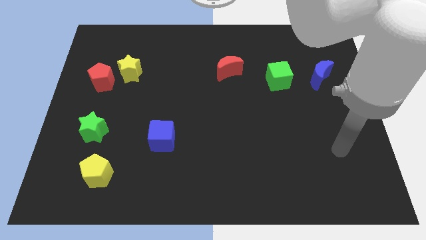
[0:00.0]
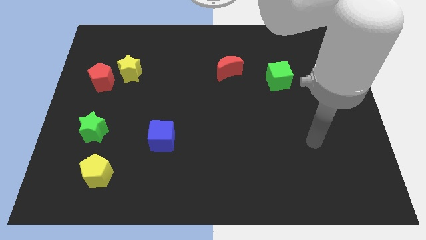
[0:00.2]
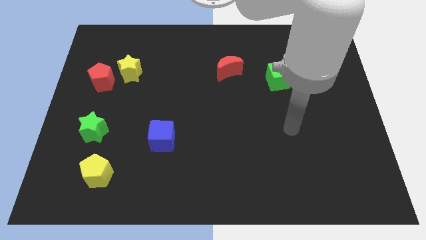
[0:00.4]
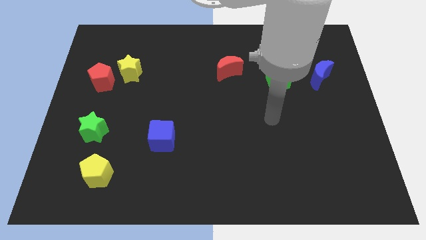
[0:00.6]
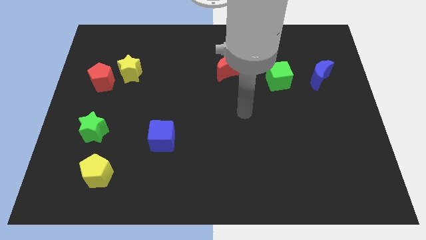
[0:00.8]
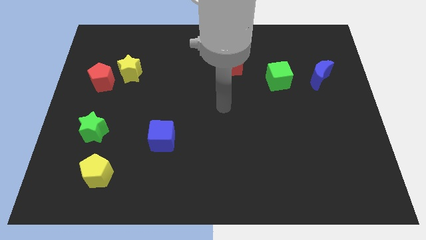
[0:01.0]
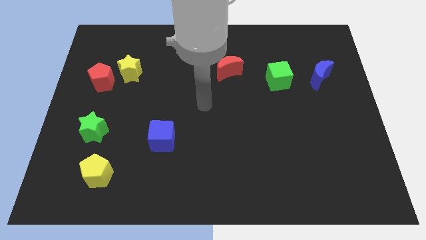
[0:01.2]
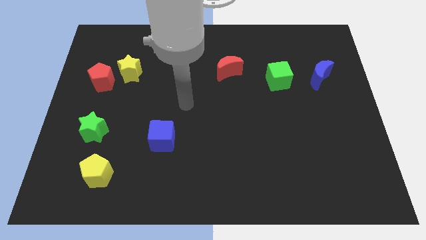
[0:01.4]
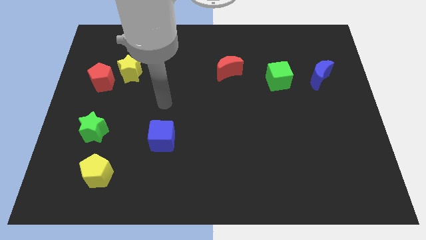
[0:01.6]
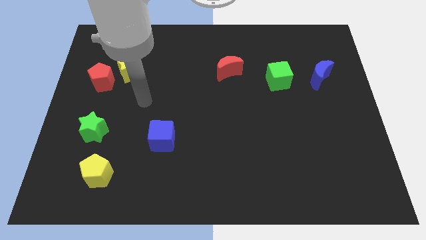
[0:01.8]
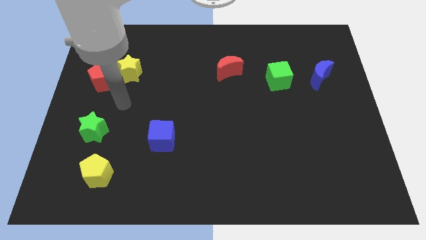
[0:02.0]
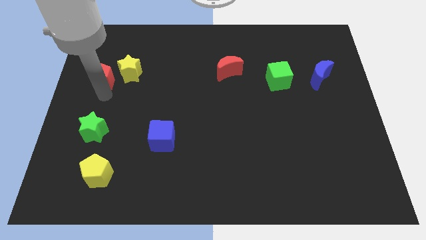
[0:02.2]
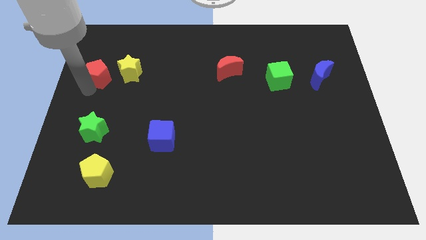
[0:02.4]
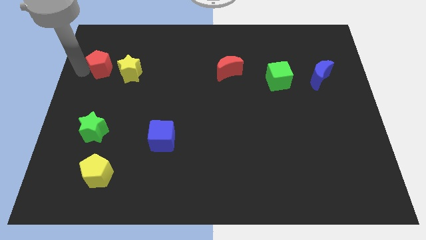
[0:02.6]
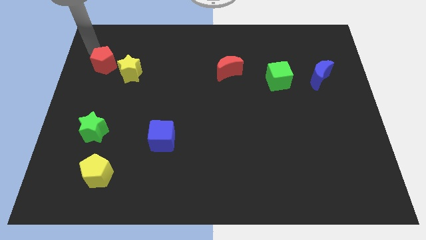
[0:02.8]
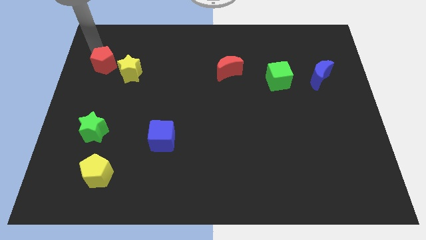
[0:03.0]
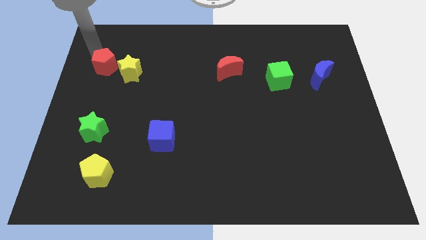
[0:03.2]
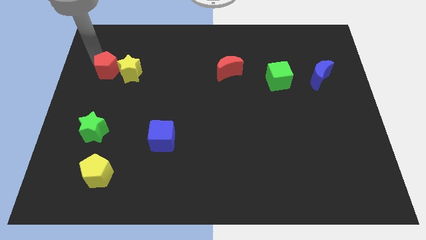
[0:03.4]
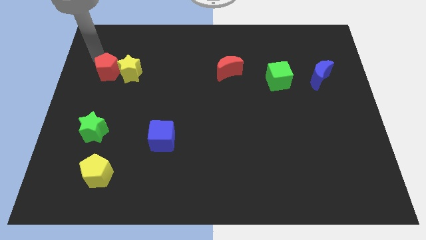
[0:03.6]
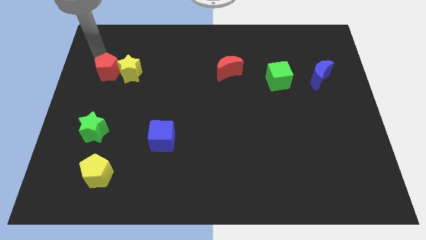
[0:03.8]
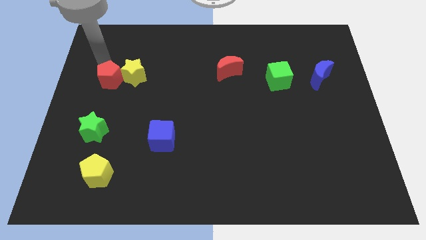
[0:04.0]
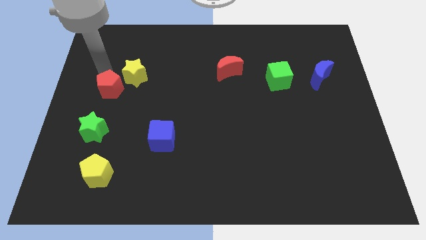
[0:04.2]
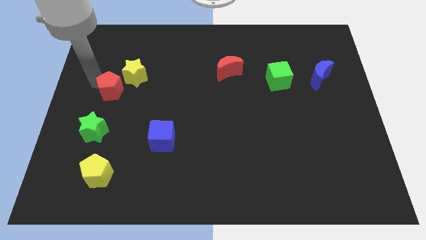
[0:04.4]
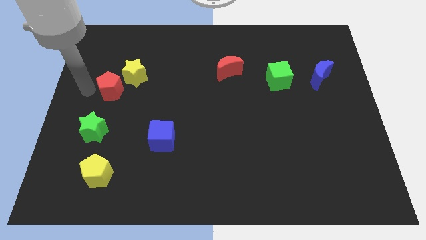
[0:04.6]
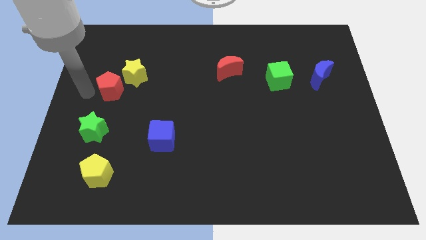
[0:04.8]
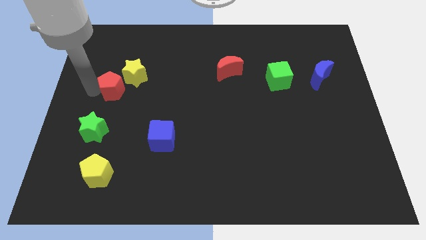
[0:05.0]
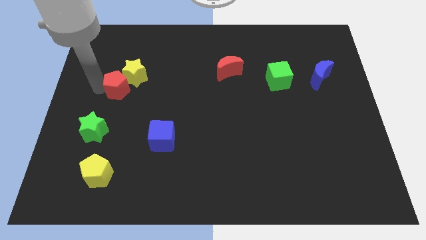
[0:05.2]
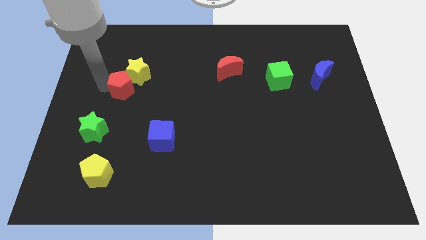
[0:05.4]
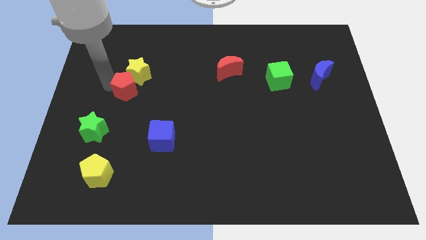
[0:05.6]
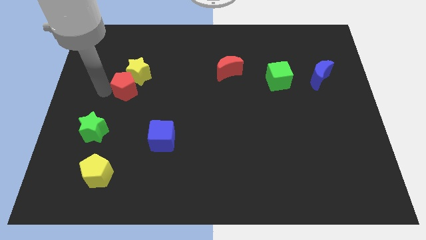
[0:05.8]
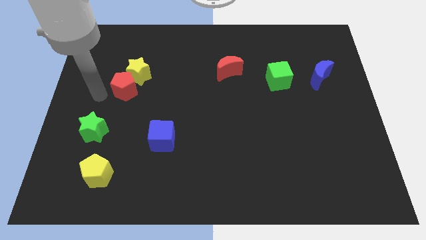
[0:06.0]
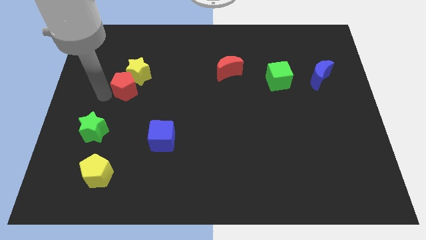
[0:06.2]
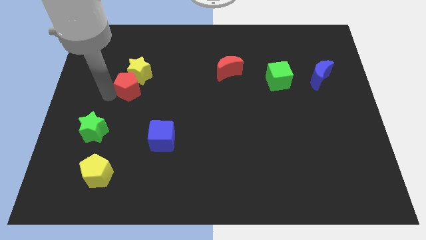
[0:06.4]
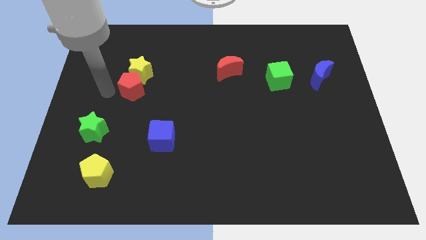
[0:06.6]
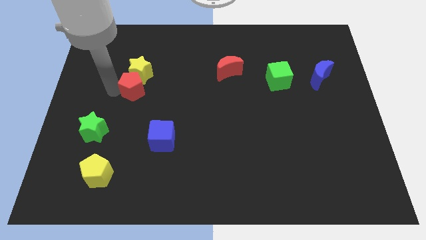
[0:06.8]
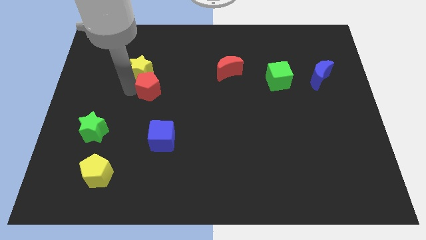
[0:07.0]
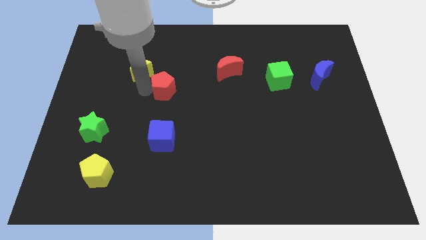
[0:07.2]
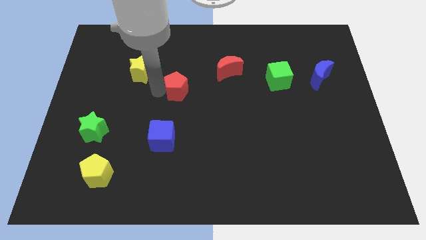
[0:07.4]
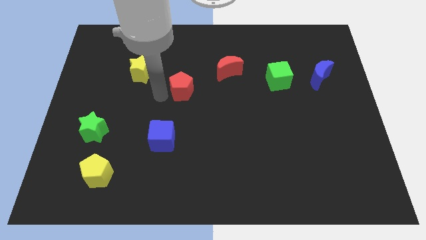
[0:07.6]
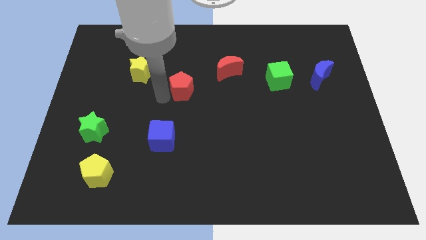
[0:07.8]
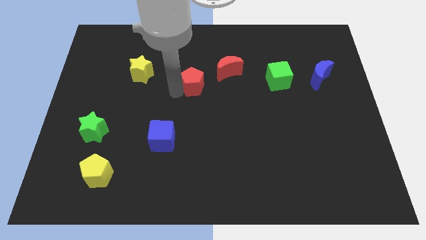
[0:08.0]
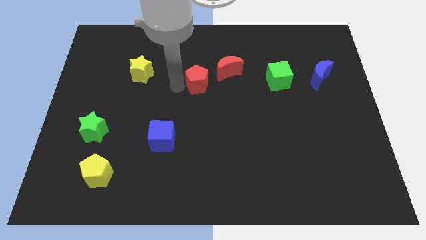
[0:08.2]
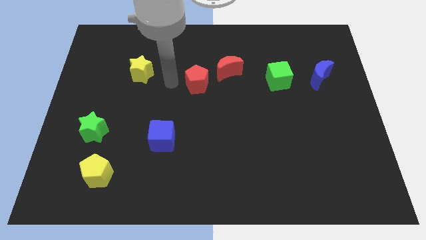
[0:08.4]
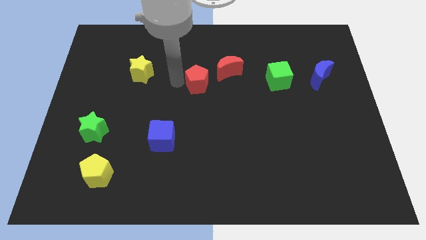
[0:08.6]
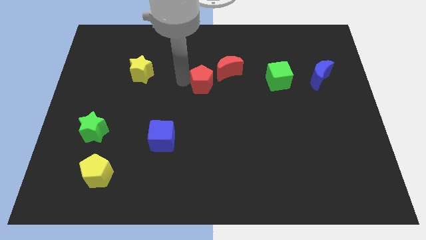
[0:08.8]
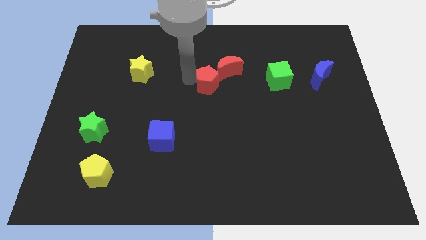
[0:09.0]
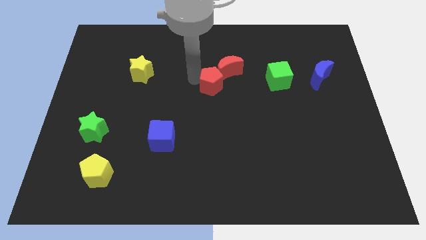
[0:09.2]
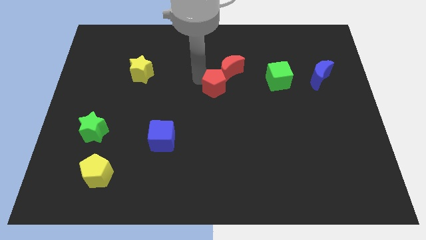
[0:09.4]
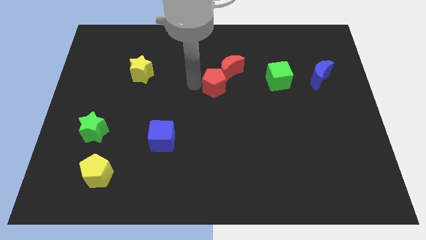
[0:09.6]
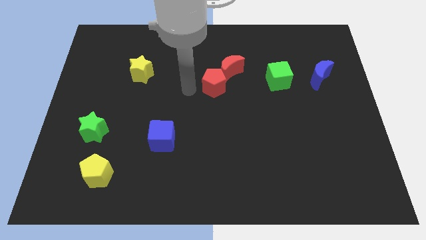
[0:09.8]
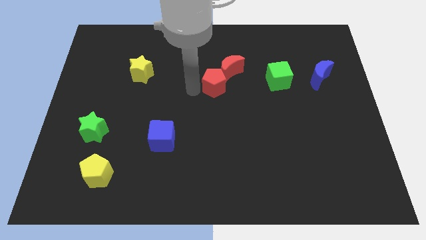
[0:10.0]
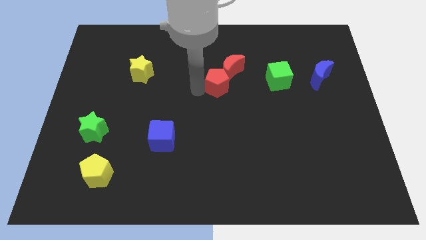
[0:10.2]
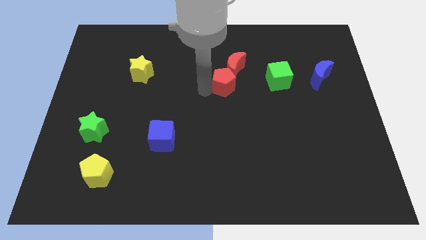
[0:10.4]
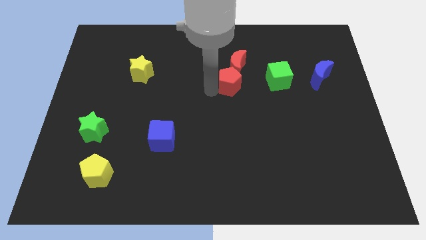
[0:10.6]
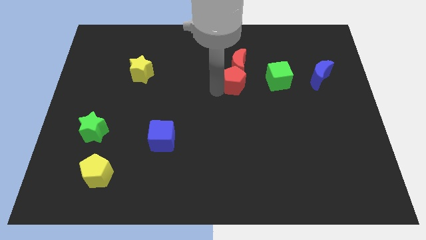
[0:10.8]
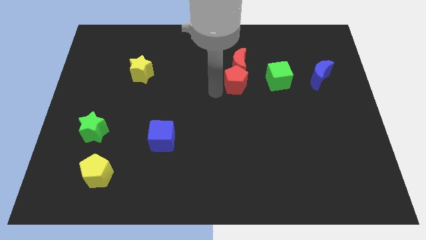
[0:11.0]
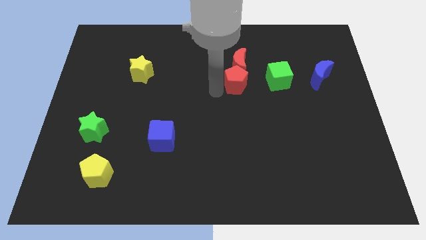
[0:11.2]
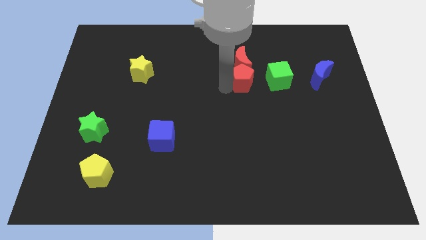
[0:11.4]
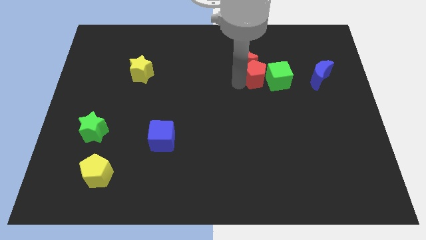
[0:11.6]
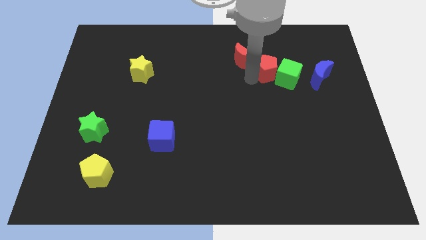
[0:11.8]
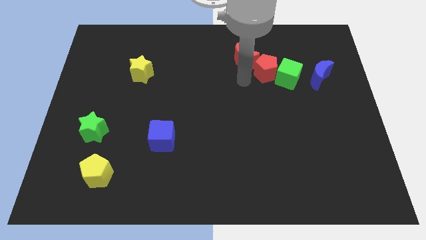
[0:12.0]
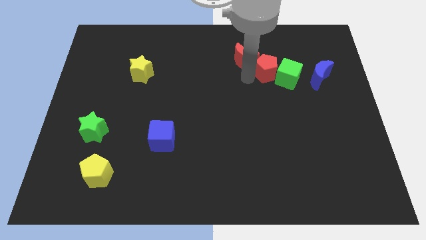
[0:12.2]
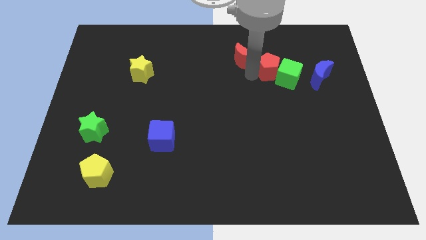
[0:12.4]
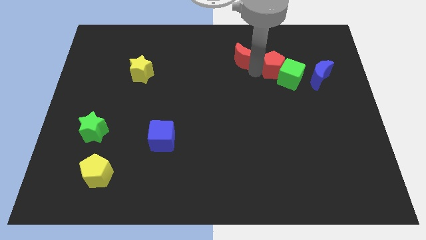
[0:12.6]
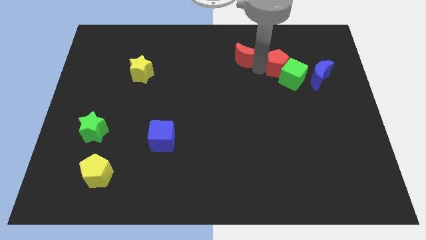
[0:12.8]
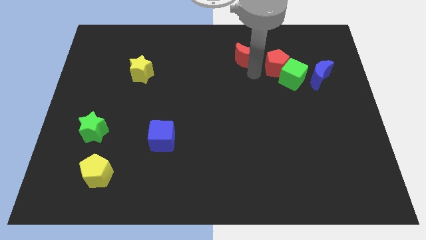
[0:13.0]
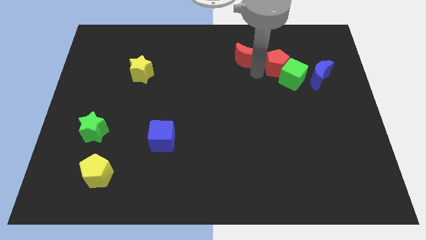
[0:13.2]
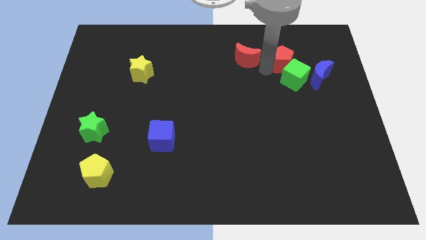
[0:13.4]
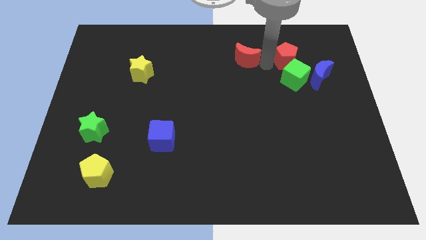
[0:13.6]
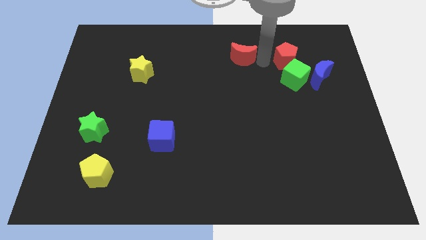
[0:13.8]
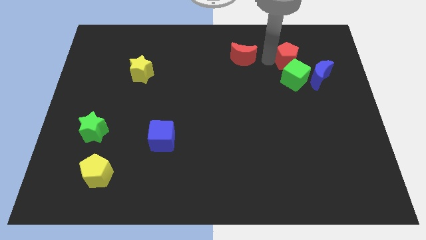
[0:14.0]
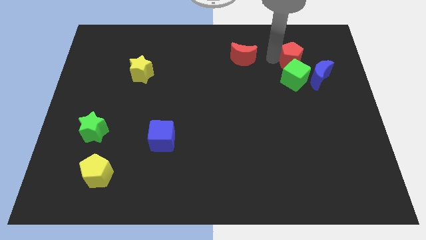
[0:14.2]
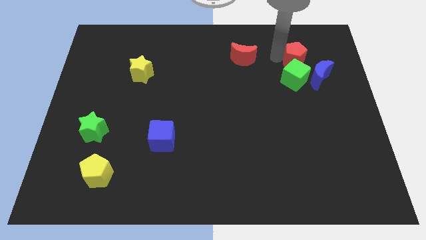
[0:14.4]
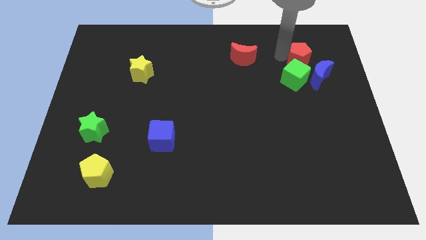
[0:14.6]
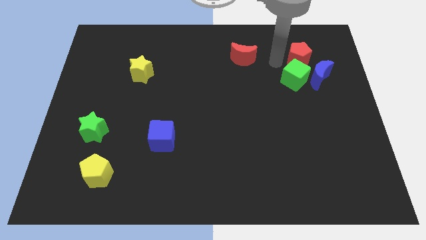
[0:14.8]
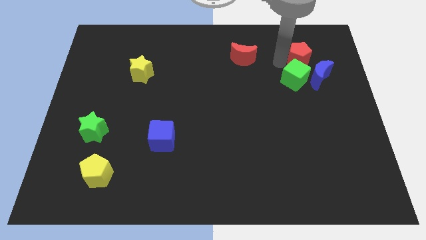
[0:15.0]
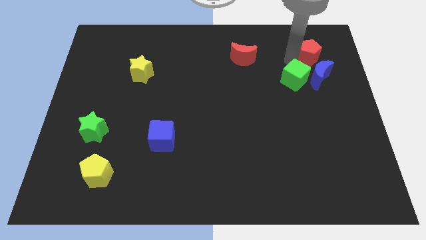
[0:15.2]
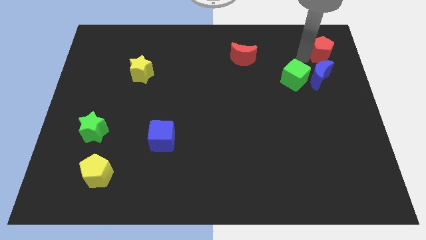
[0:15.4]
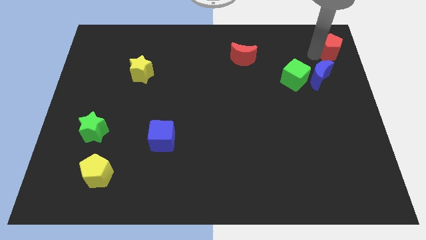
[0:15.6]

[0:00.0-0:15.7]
move the red pentagon to the upper right corner
